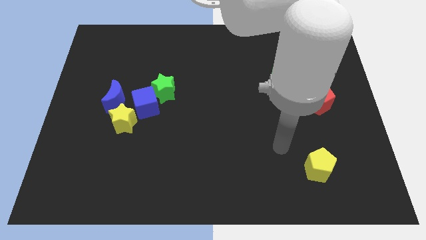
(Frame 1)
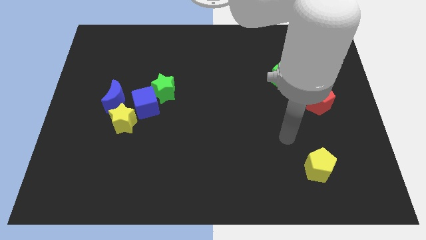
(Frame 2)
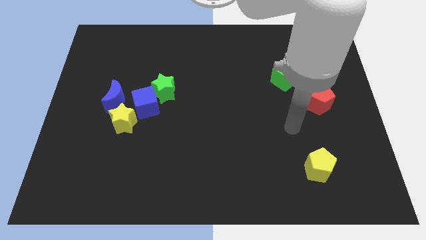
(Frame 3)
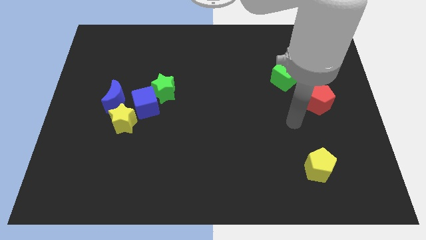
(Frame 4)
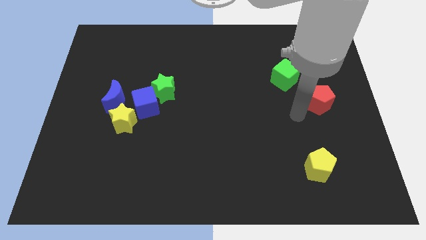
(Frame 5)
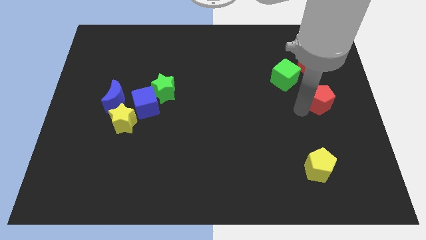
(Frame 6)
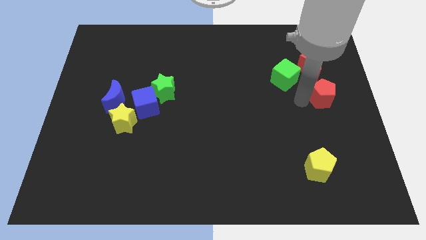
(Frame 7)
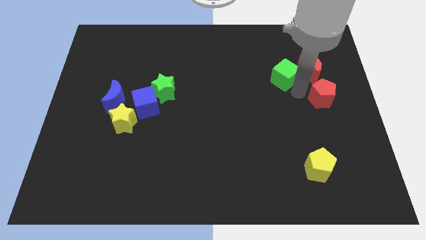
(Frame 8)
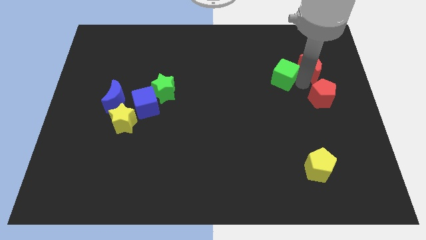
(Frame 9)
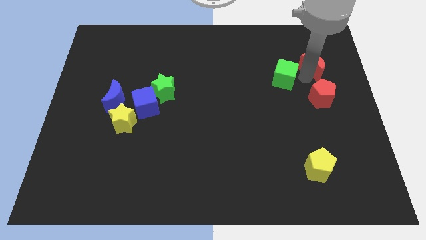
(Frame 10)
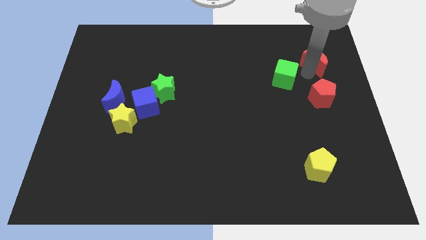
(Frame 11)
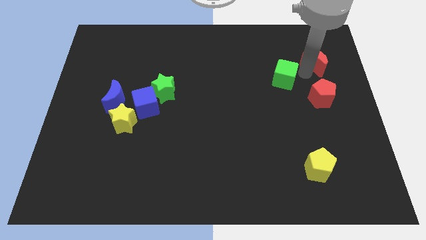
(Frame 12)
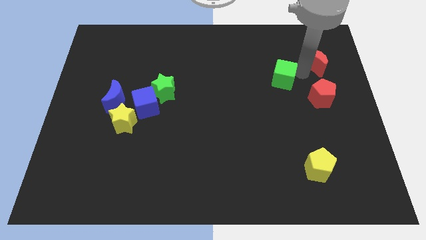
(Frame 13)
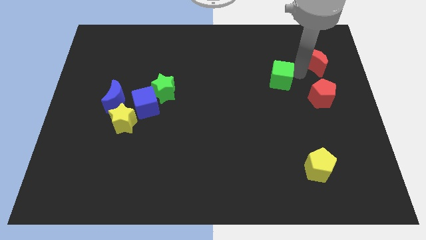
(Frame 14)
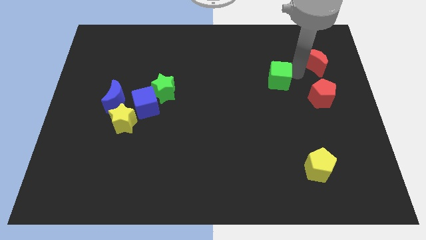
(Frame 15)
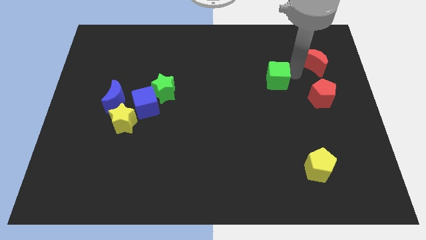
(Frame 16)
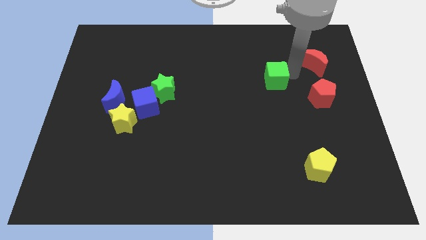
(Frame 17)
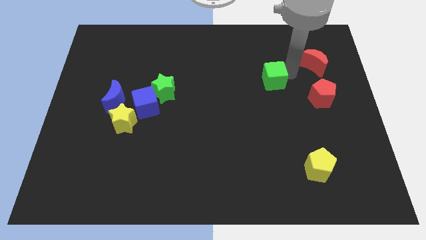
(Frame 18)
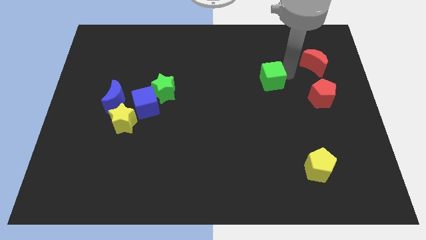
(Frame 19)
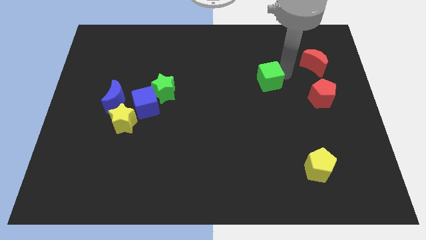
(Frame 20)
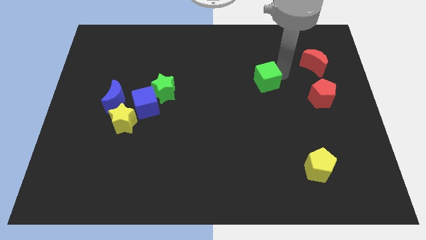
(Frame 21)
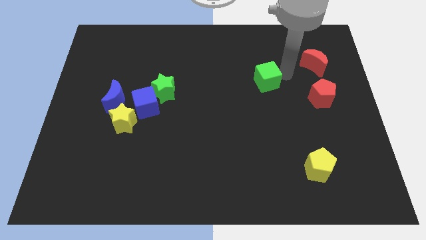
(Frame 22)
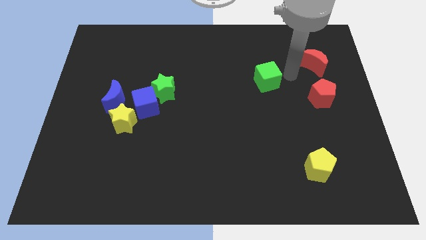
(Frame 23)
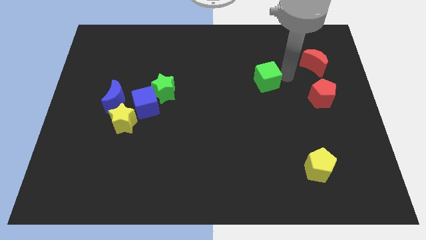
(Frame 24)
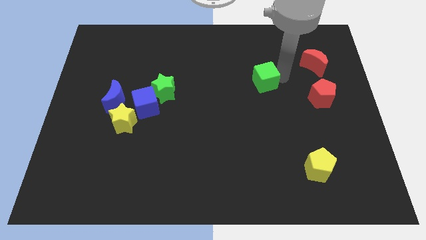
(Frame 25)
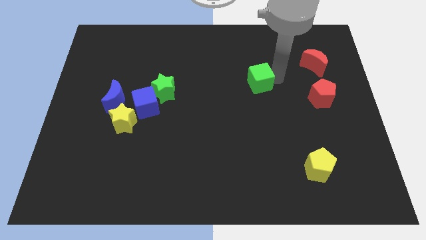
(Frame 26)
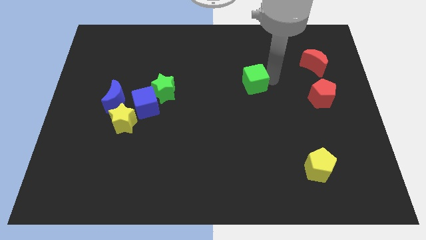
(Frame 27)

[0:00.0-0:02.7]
slide the green cube left a little bit

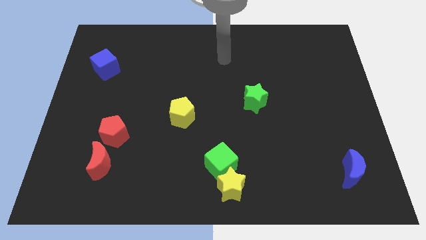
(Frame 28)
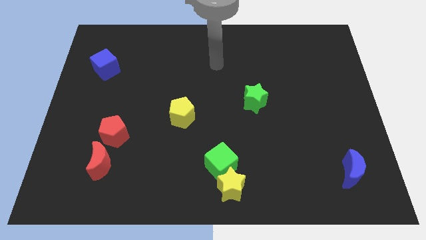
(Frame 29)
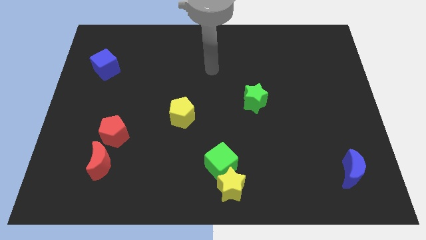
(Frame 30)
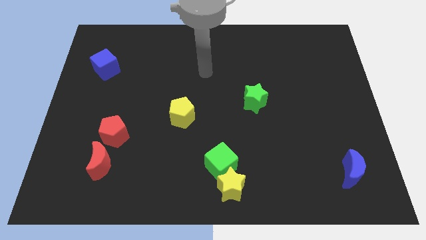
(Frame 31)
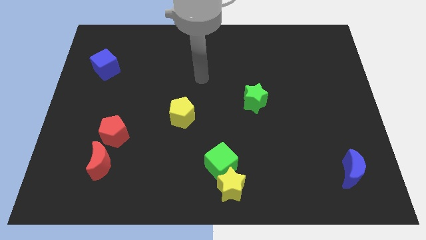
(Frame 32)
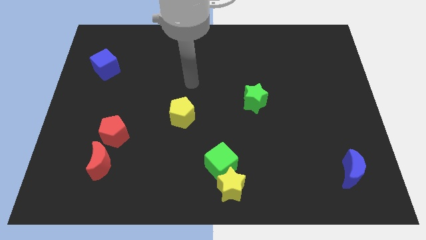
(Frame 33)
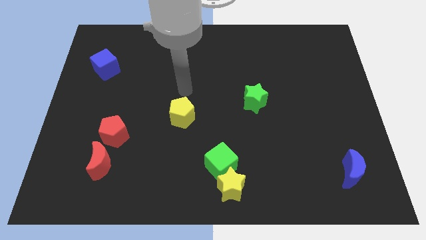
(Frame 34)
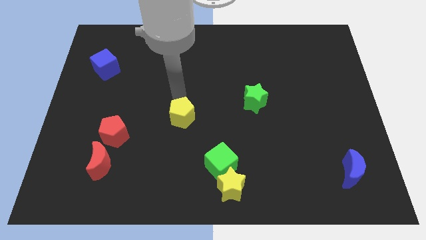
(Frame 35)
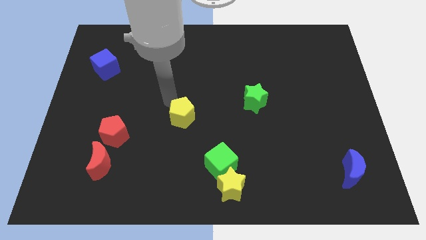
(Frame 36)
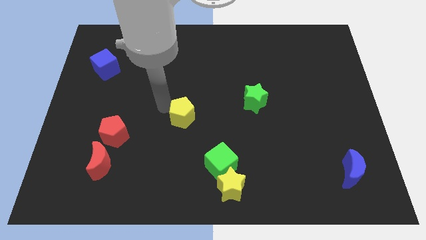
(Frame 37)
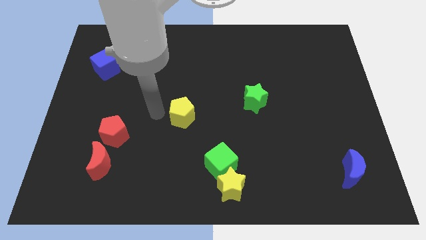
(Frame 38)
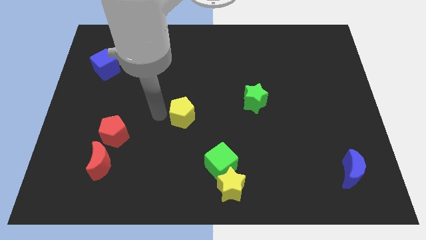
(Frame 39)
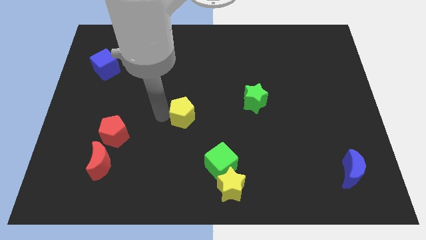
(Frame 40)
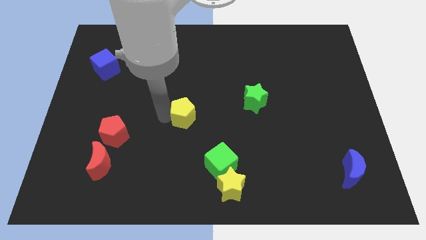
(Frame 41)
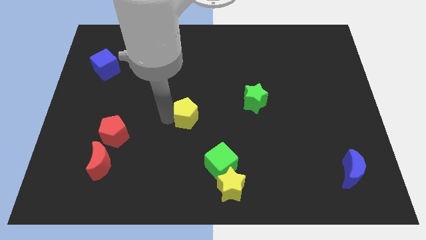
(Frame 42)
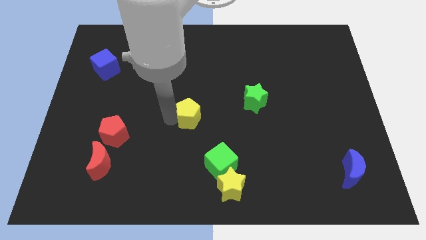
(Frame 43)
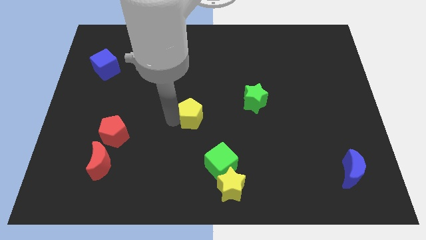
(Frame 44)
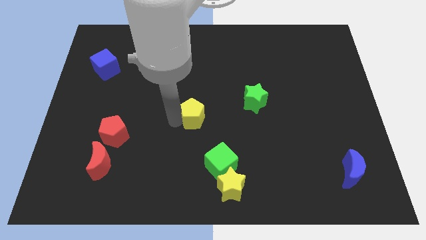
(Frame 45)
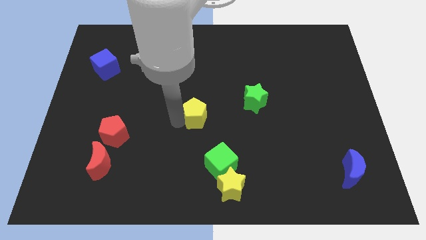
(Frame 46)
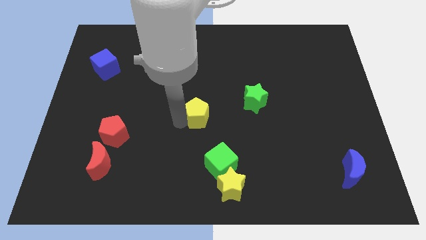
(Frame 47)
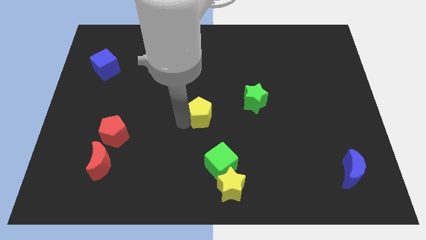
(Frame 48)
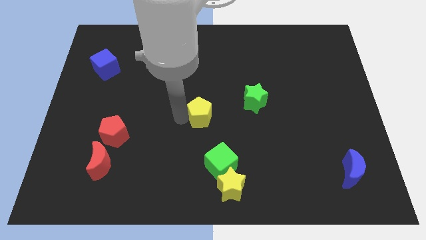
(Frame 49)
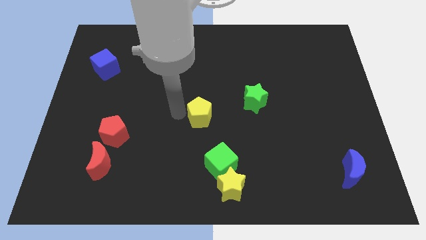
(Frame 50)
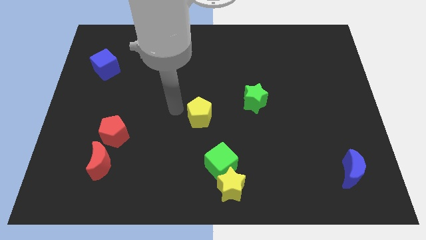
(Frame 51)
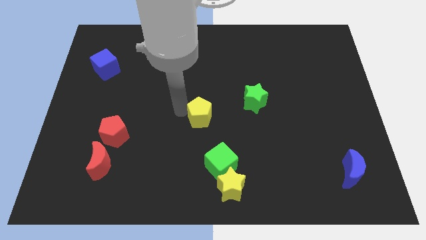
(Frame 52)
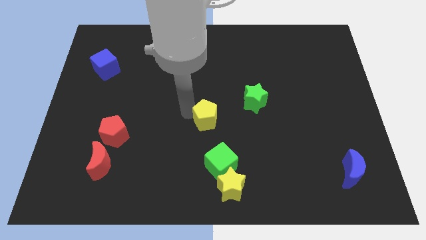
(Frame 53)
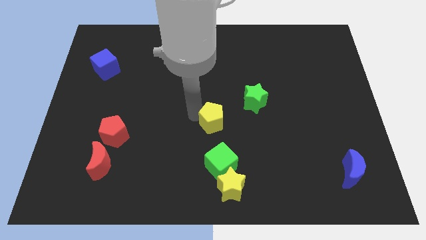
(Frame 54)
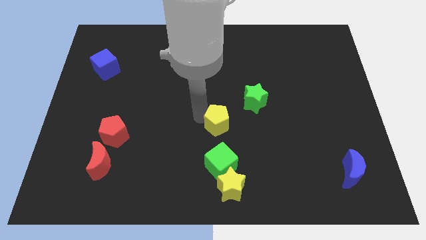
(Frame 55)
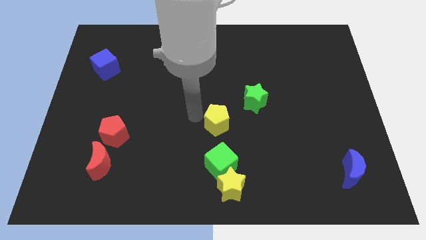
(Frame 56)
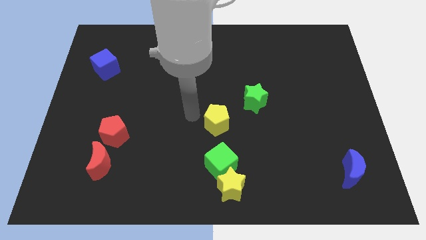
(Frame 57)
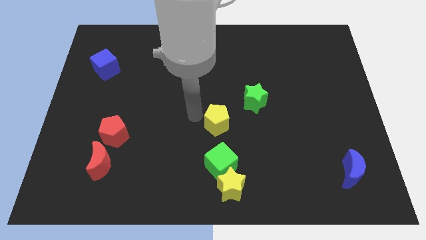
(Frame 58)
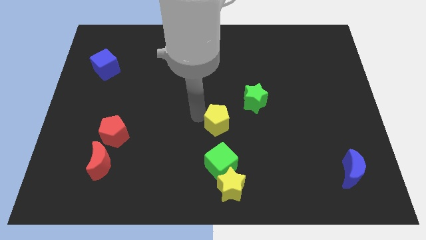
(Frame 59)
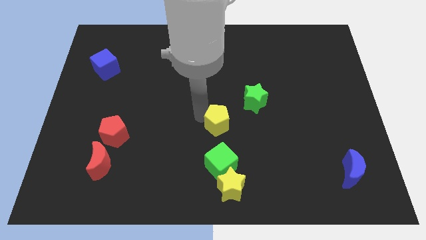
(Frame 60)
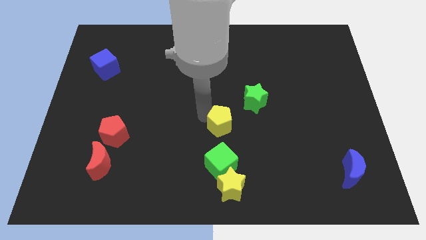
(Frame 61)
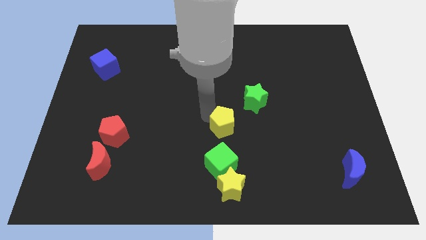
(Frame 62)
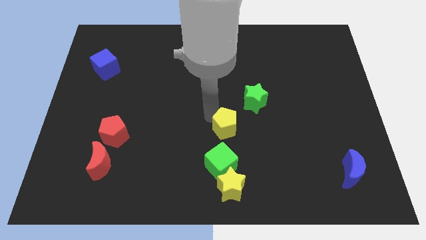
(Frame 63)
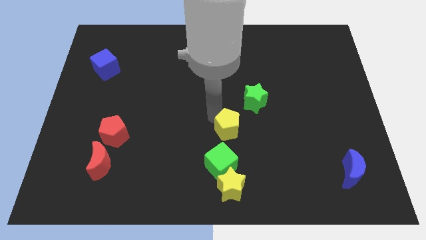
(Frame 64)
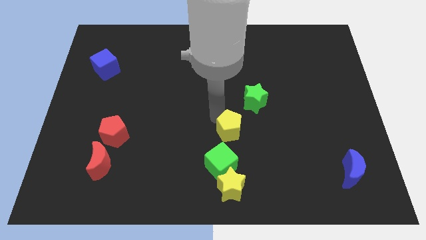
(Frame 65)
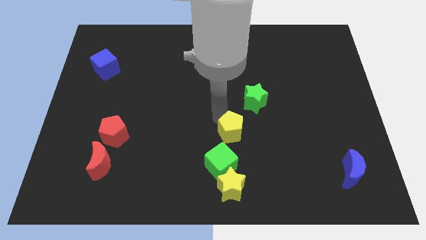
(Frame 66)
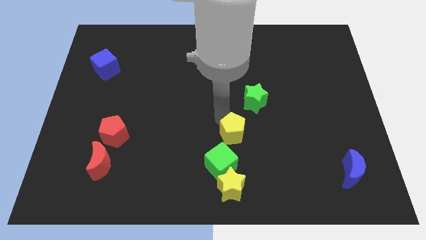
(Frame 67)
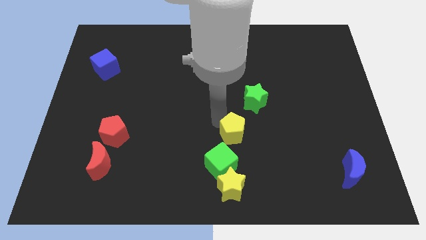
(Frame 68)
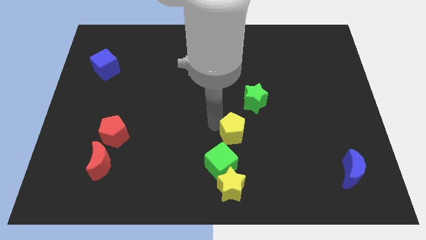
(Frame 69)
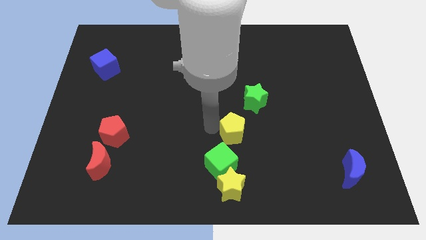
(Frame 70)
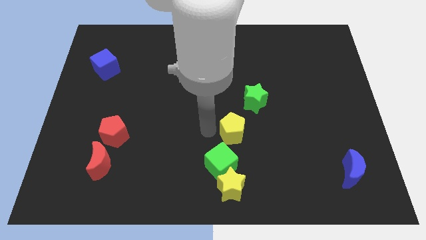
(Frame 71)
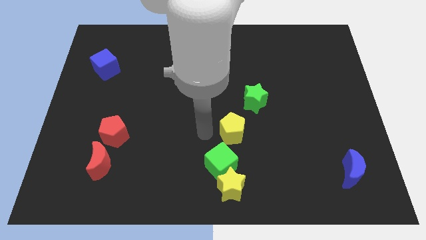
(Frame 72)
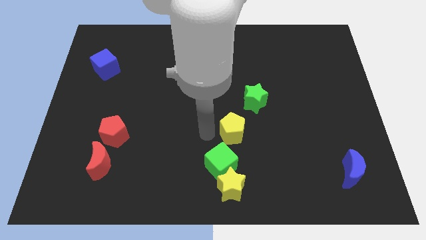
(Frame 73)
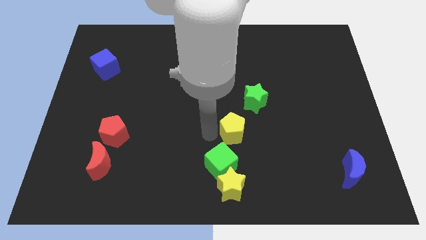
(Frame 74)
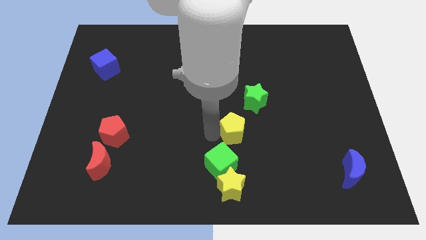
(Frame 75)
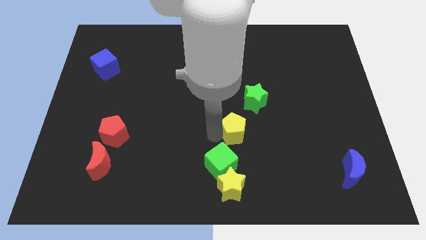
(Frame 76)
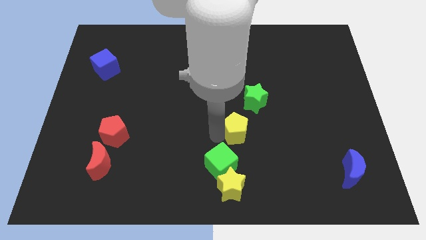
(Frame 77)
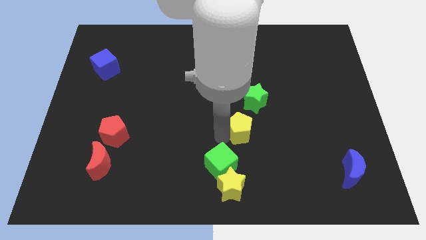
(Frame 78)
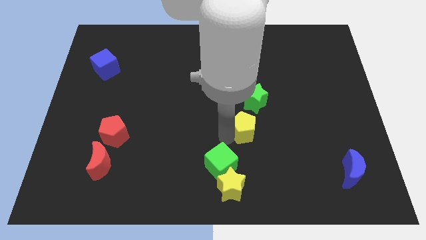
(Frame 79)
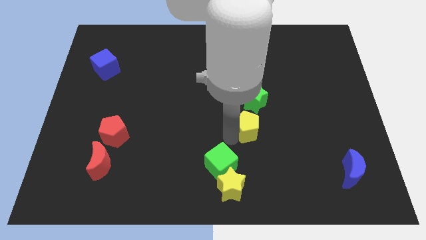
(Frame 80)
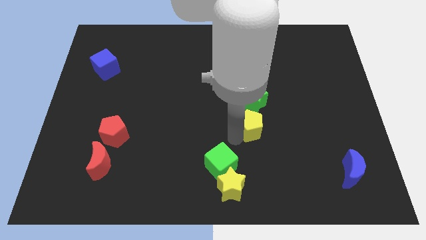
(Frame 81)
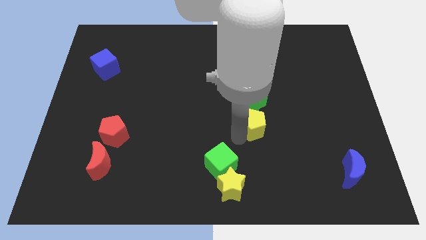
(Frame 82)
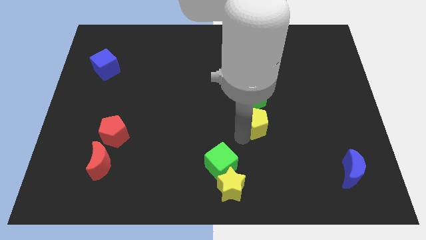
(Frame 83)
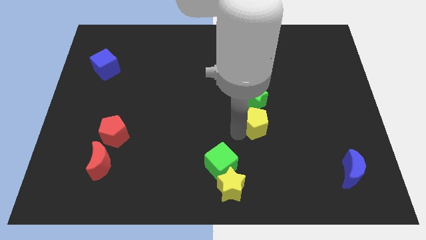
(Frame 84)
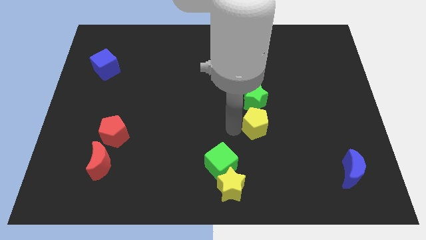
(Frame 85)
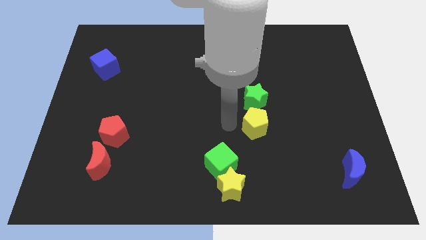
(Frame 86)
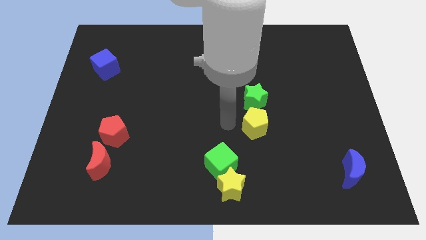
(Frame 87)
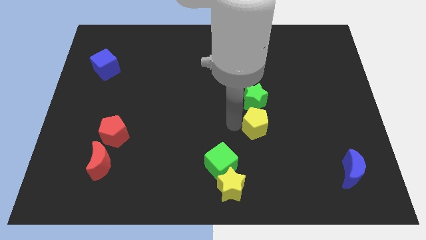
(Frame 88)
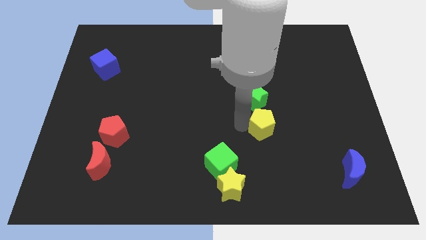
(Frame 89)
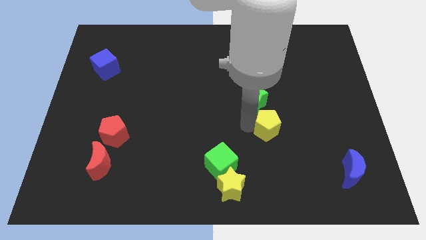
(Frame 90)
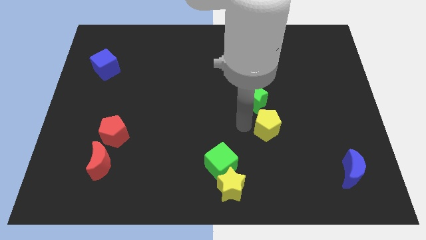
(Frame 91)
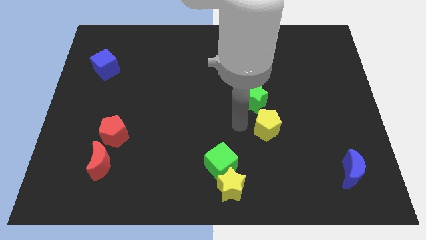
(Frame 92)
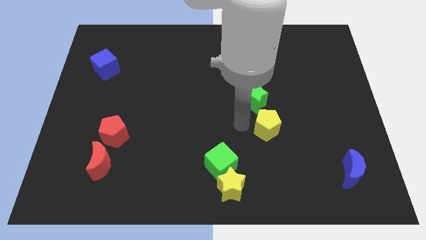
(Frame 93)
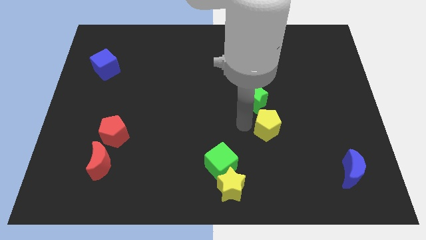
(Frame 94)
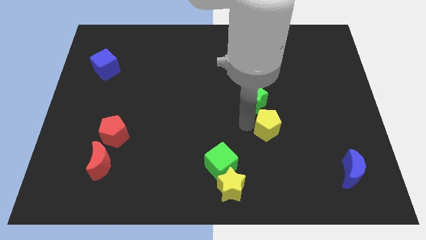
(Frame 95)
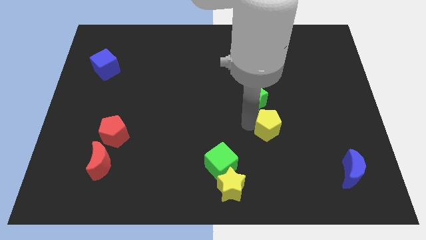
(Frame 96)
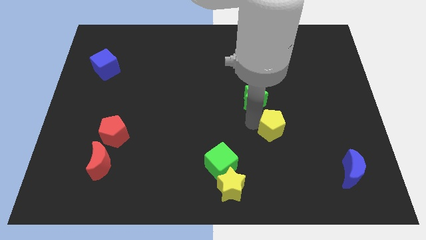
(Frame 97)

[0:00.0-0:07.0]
move the yellow pentagon to the right
